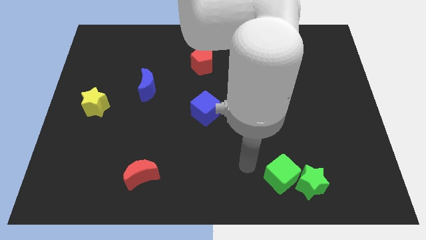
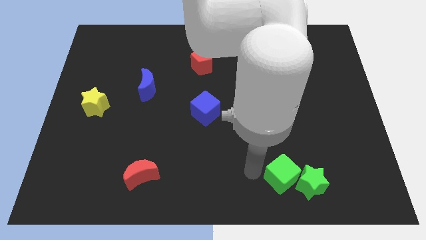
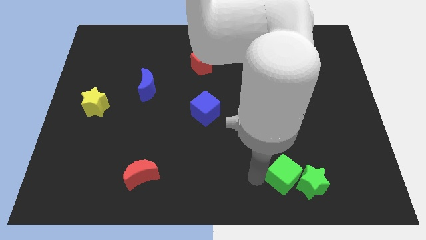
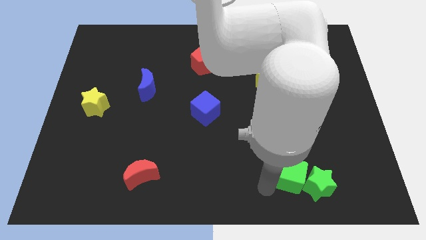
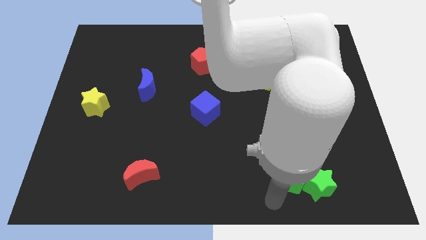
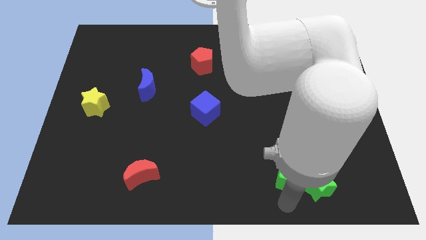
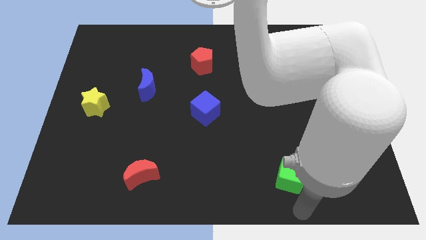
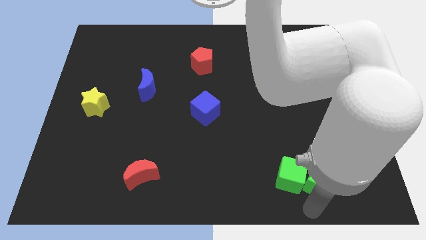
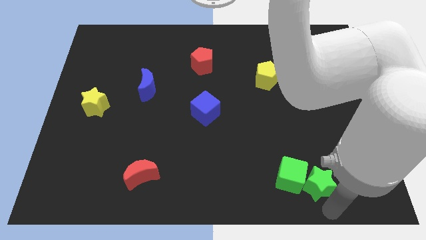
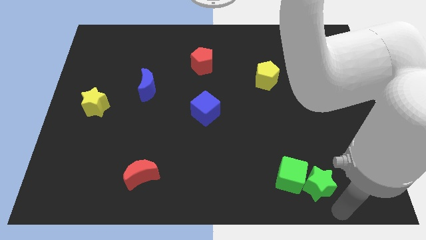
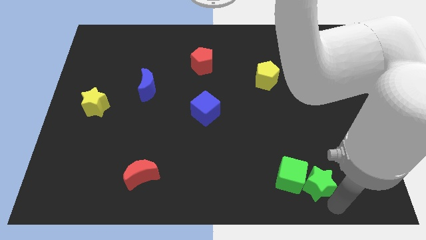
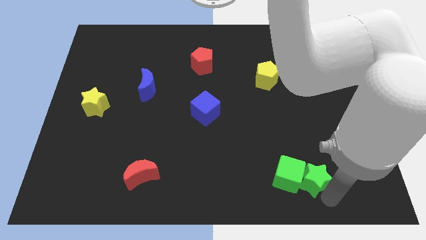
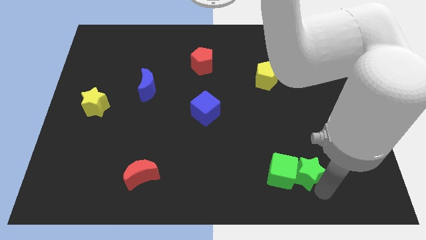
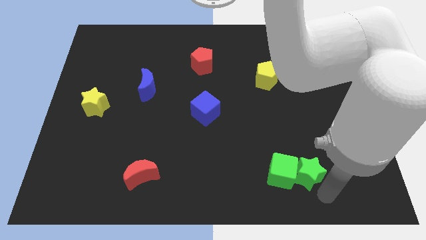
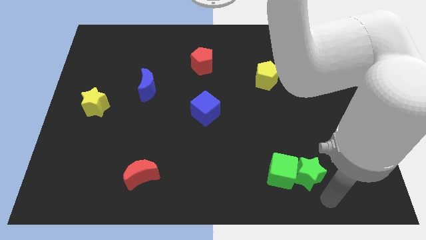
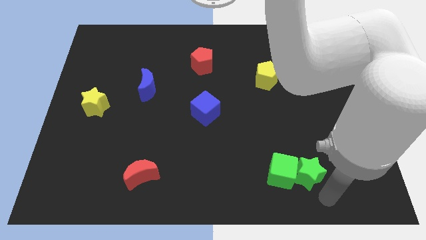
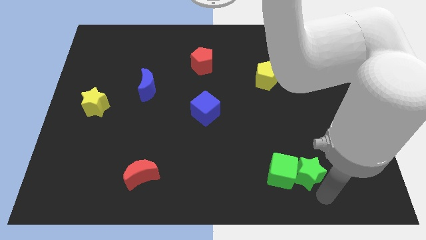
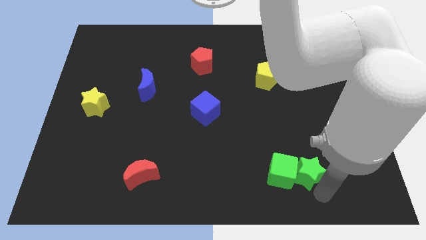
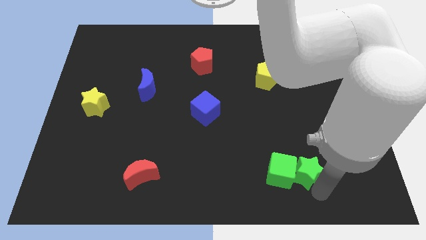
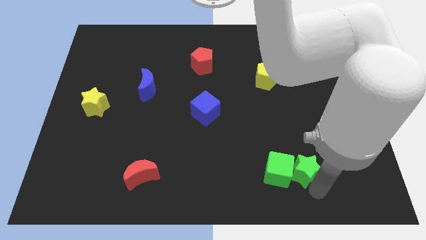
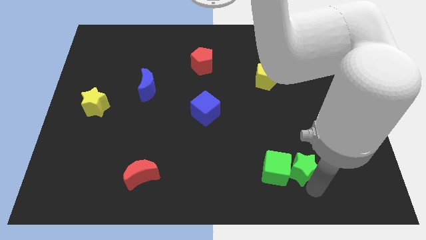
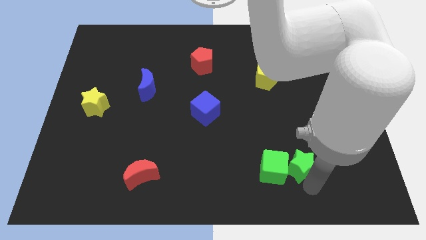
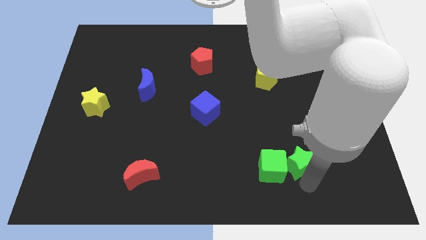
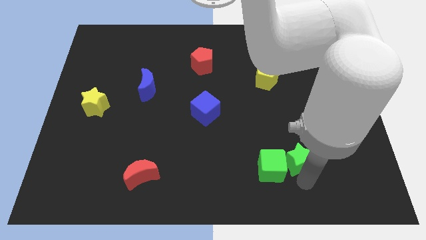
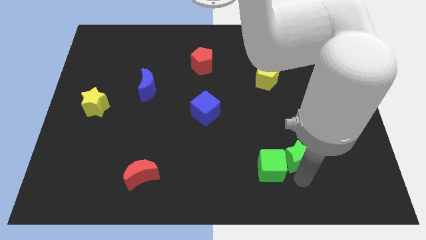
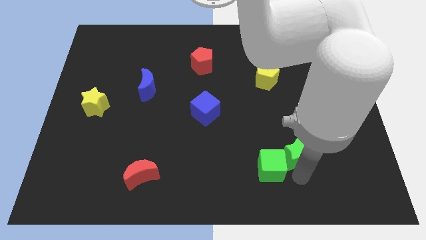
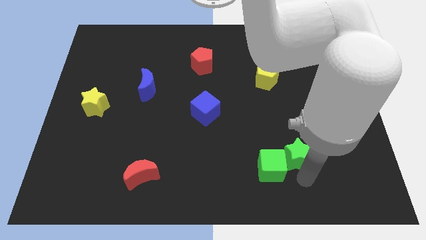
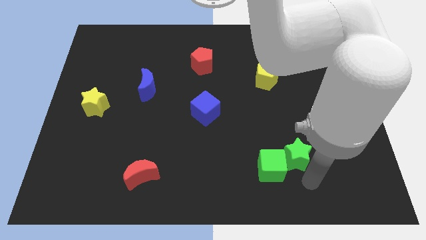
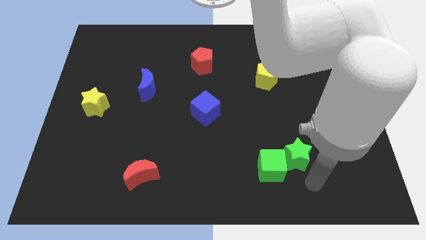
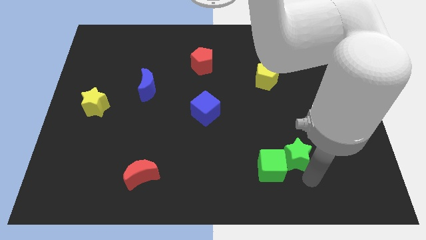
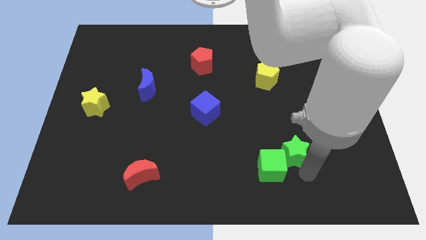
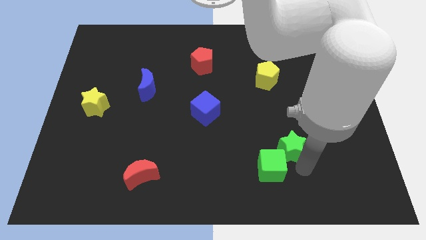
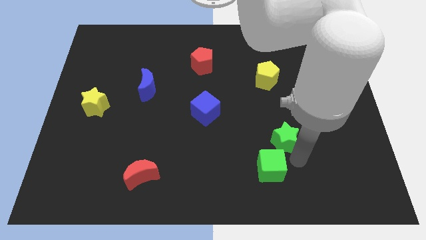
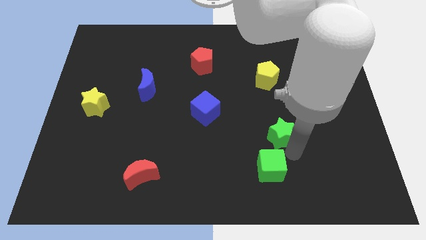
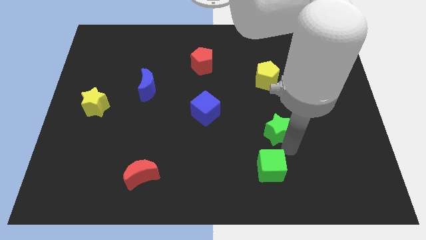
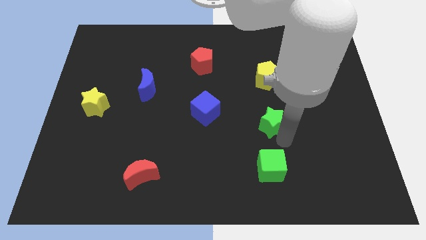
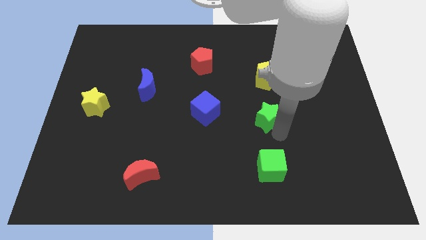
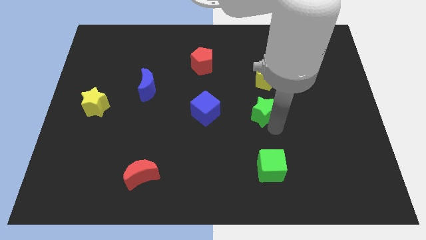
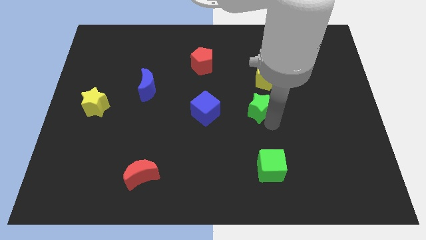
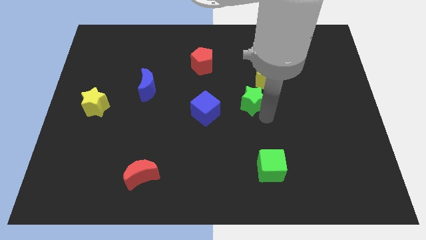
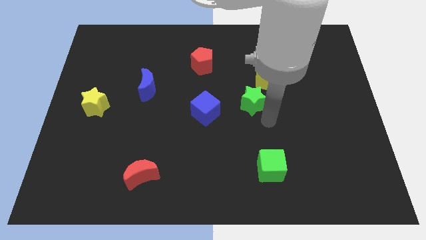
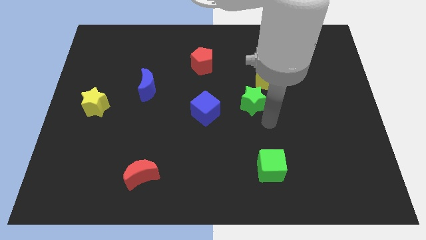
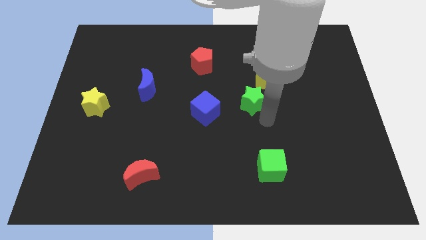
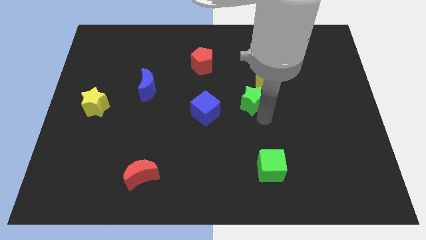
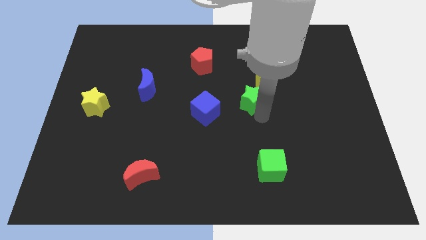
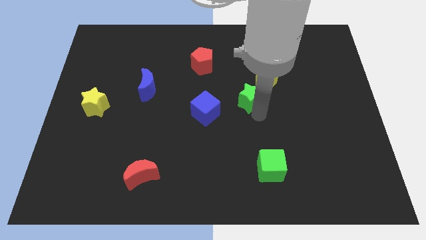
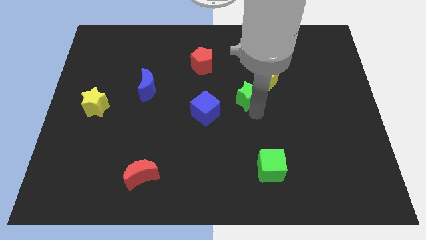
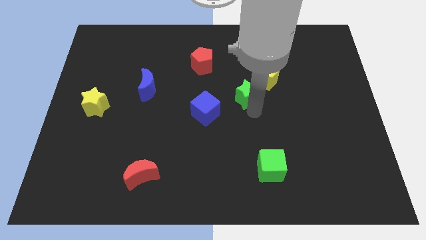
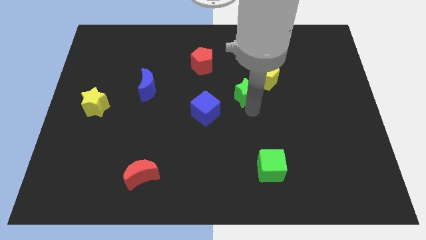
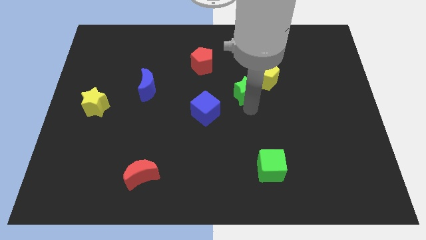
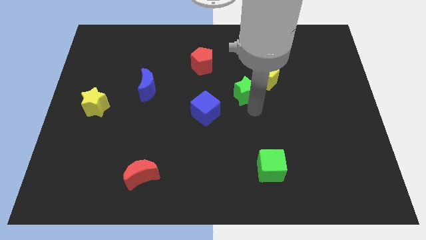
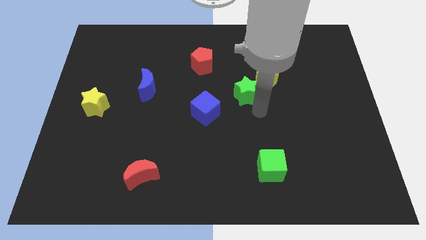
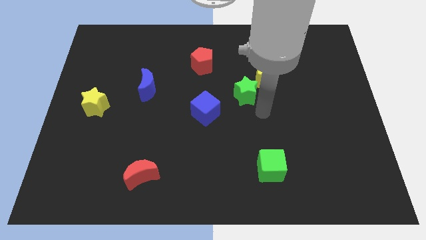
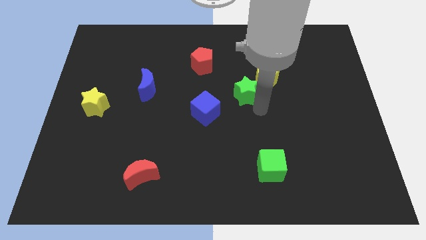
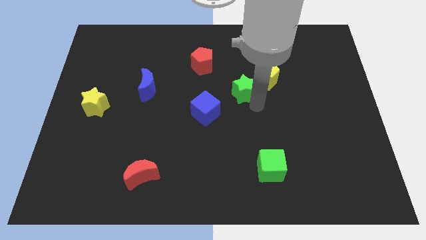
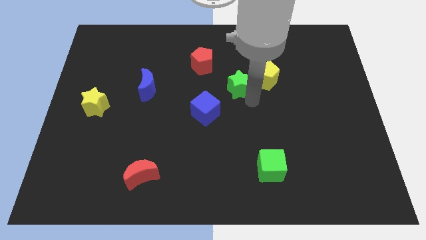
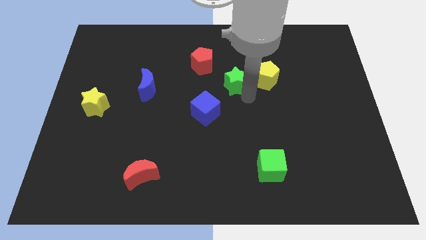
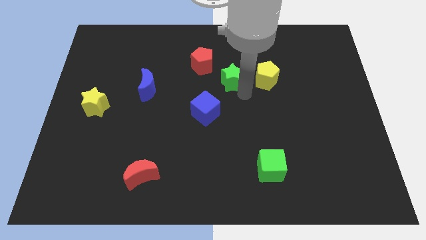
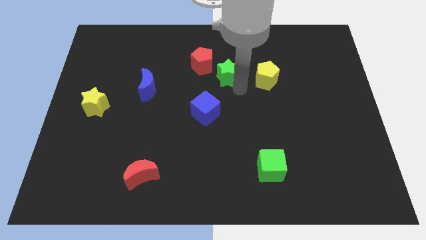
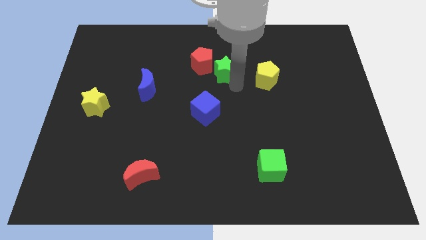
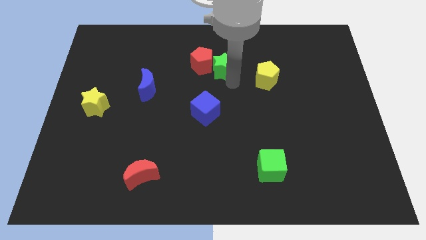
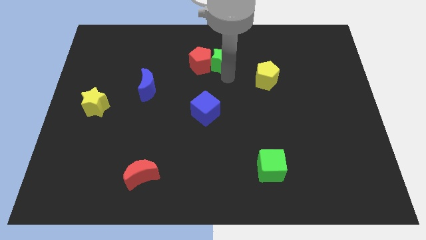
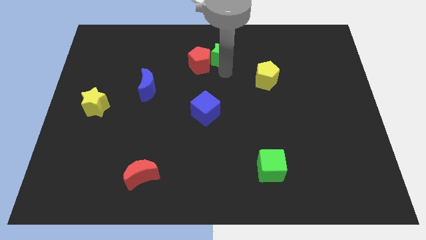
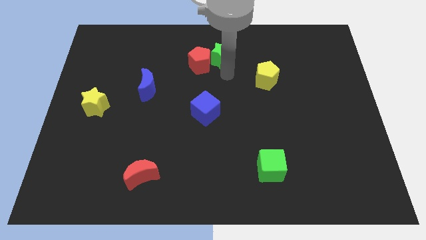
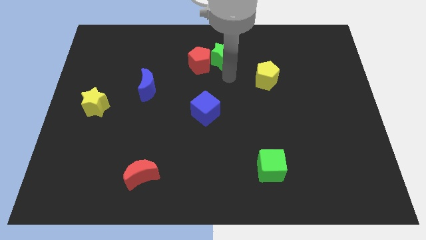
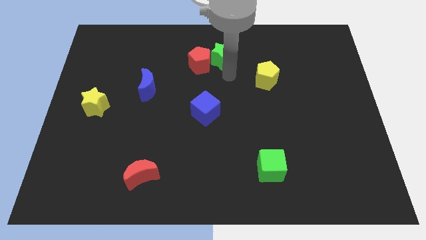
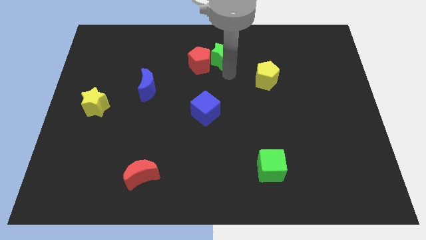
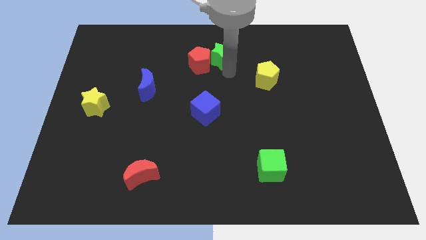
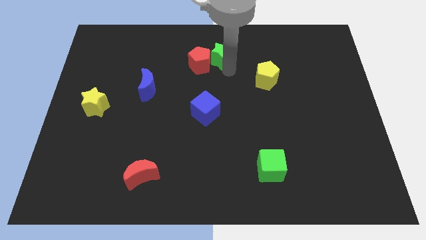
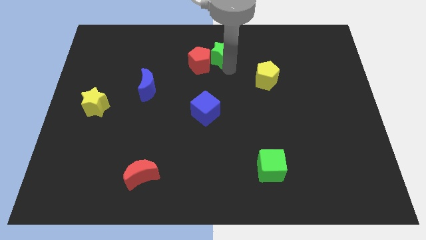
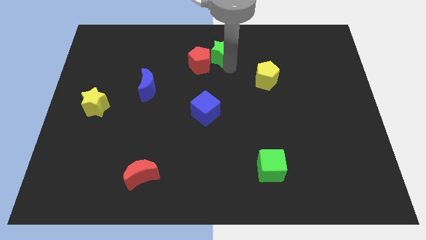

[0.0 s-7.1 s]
slide the green star to the top

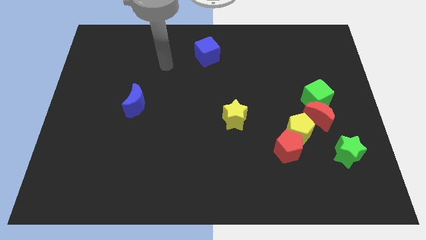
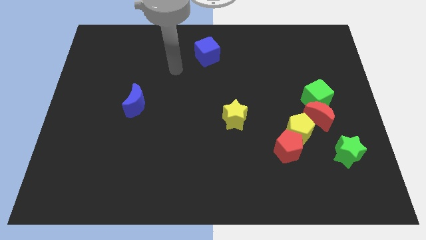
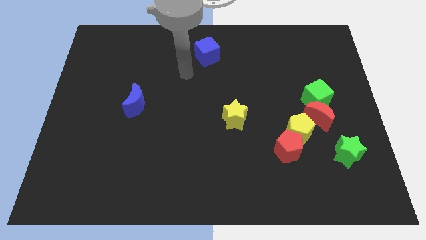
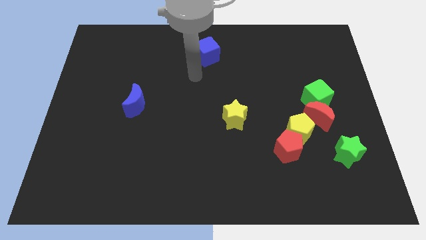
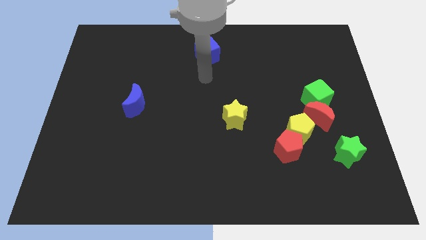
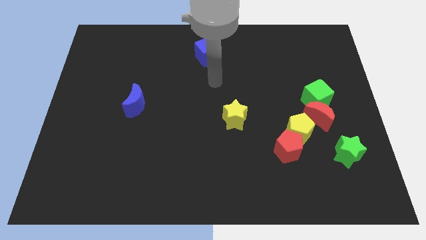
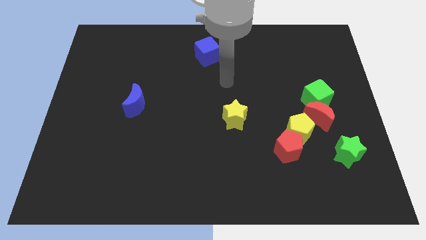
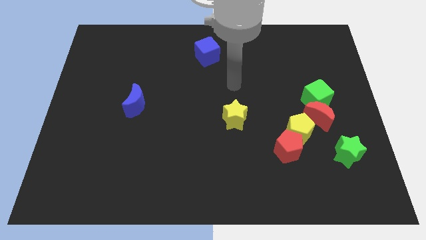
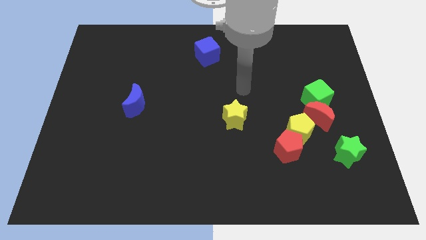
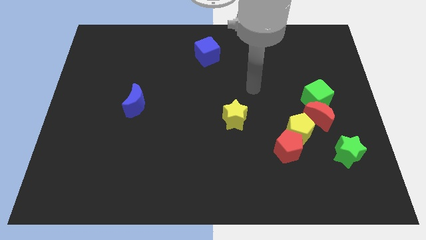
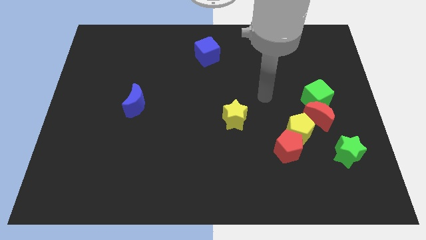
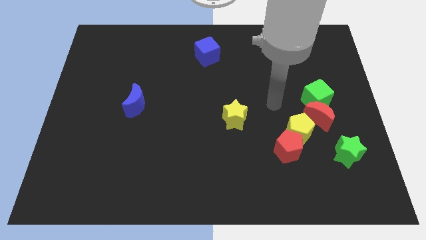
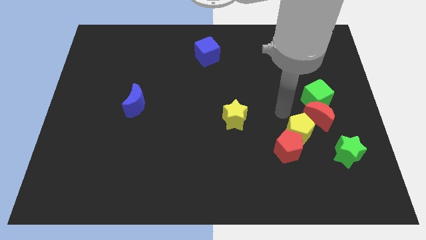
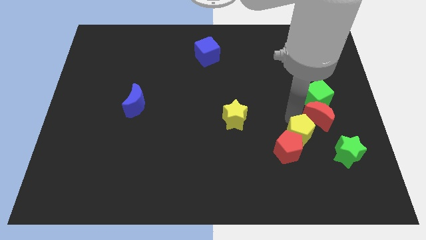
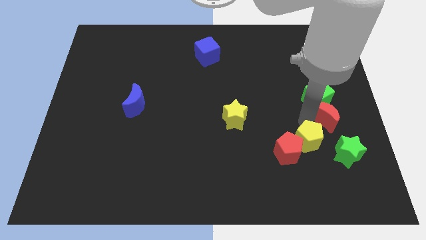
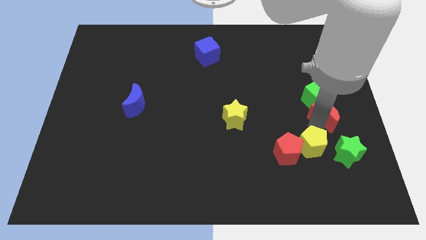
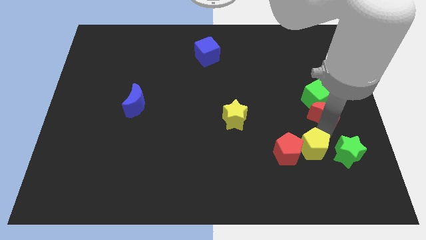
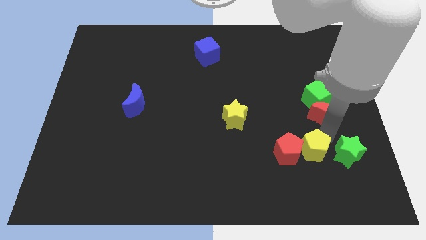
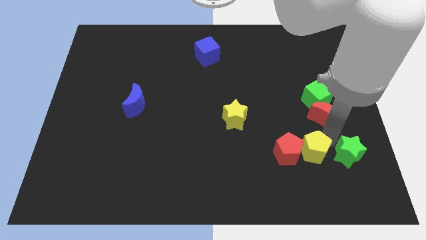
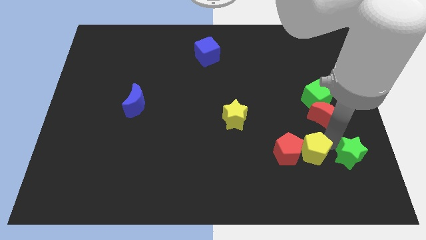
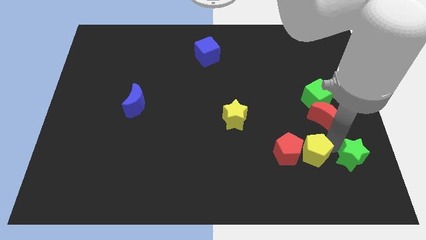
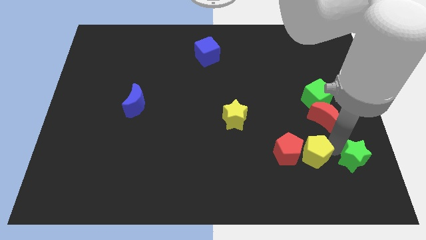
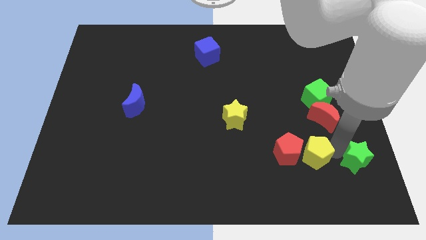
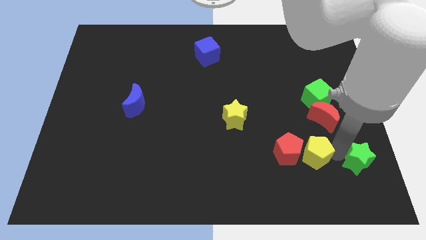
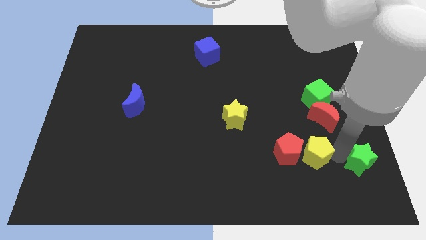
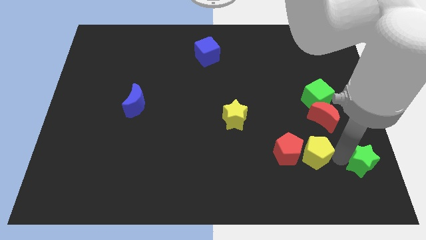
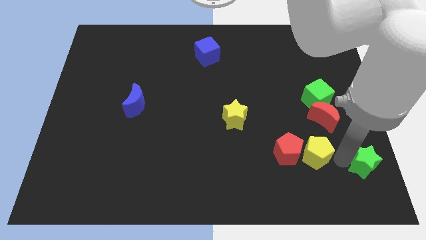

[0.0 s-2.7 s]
slide the green star to the bottom right of the board
